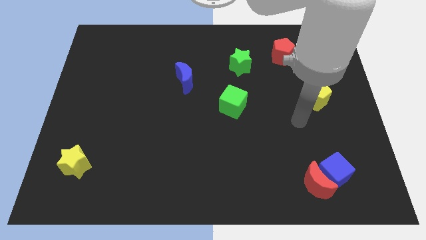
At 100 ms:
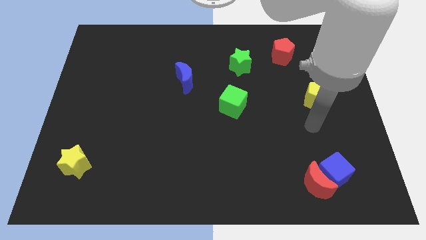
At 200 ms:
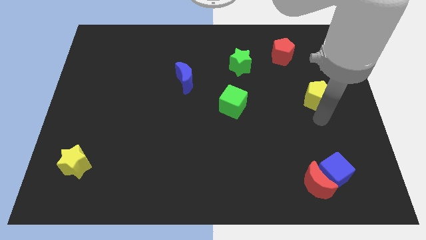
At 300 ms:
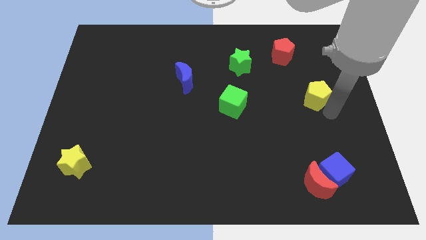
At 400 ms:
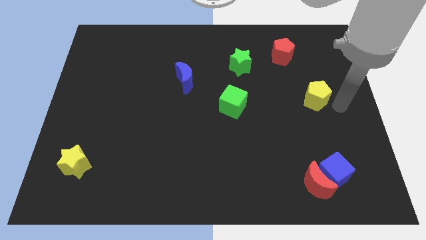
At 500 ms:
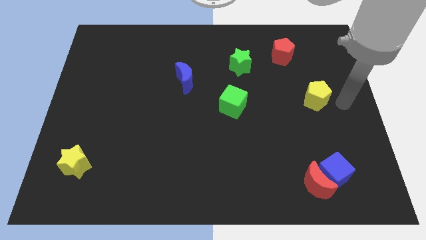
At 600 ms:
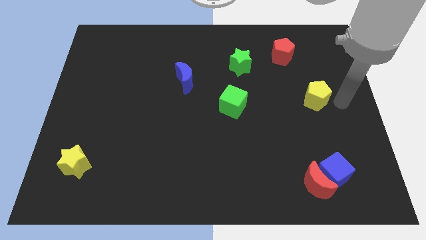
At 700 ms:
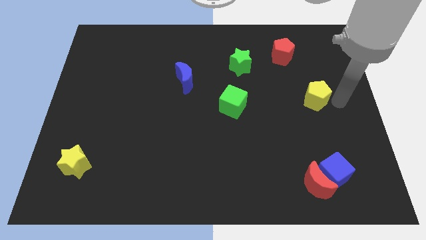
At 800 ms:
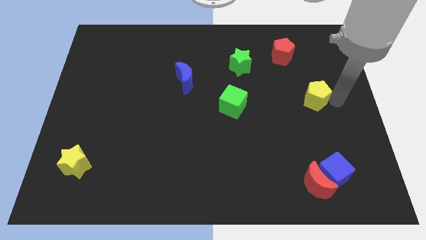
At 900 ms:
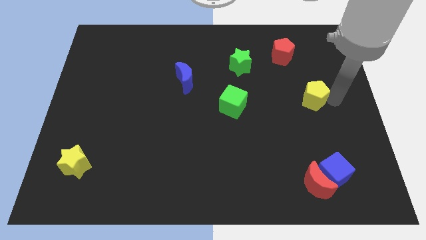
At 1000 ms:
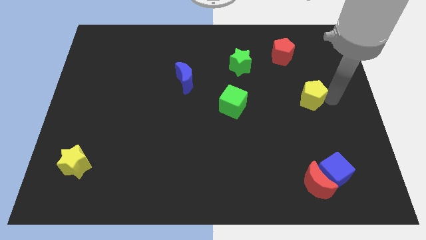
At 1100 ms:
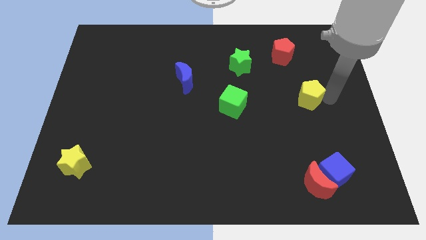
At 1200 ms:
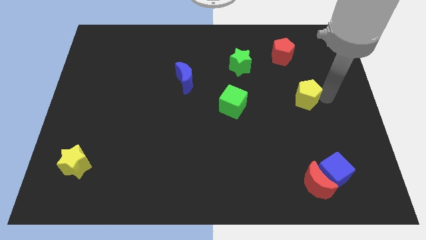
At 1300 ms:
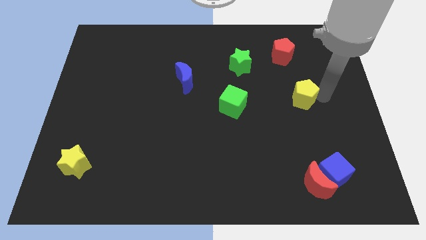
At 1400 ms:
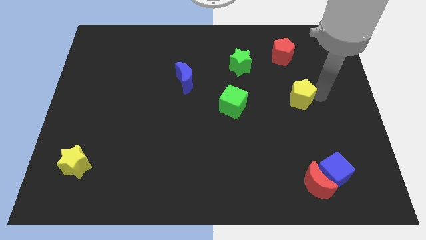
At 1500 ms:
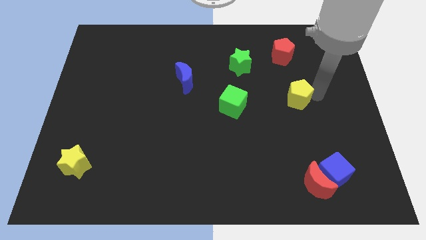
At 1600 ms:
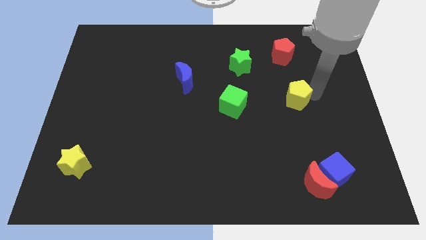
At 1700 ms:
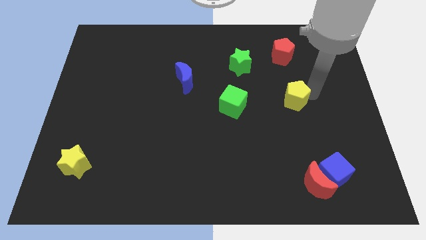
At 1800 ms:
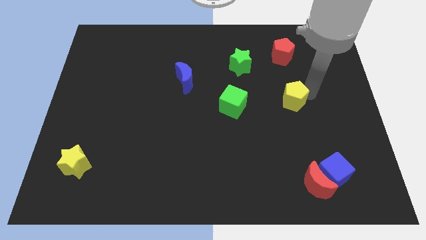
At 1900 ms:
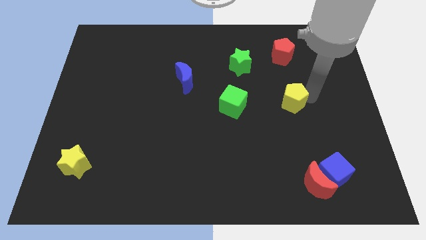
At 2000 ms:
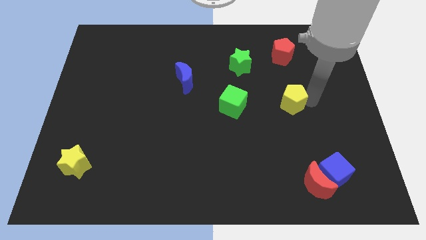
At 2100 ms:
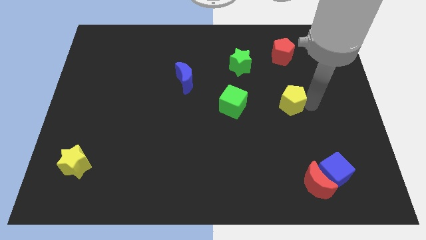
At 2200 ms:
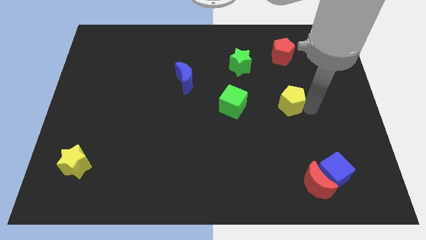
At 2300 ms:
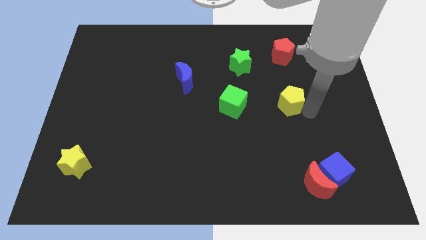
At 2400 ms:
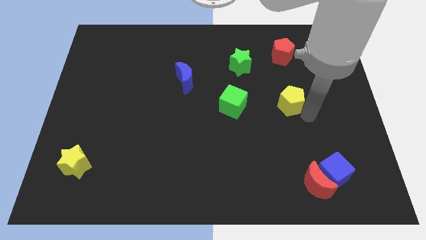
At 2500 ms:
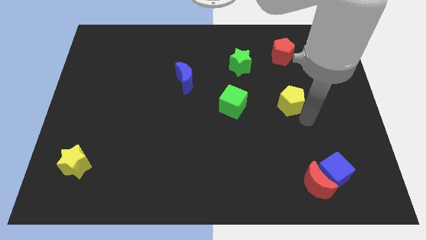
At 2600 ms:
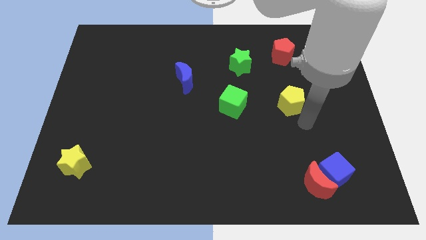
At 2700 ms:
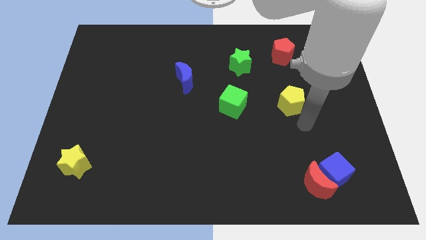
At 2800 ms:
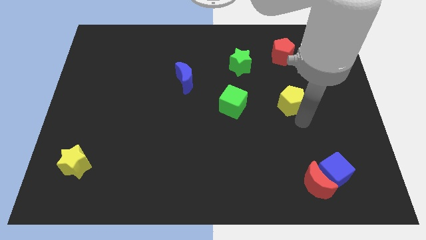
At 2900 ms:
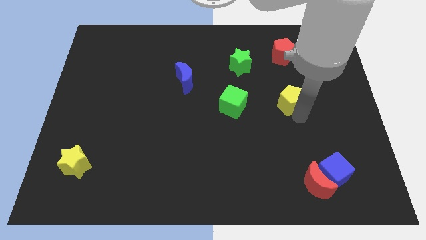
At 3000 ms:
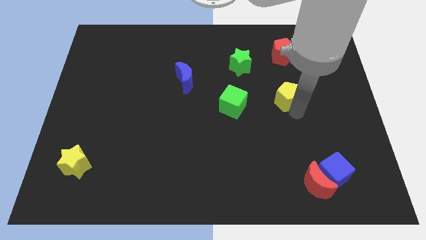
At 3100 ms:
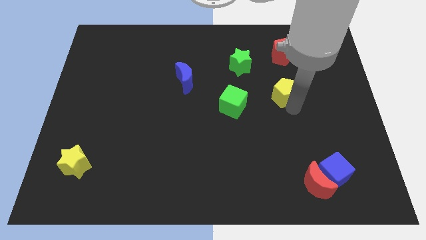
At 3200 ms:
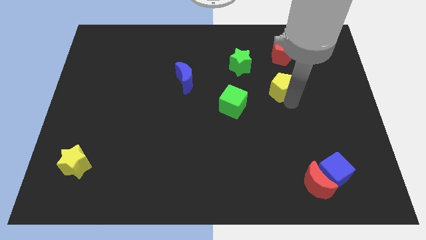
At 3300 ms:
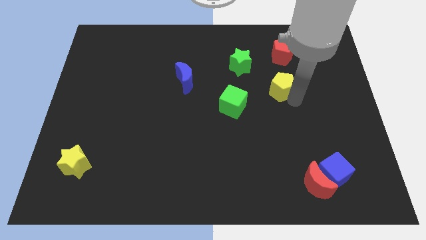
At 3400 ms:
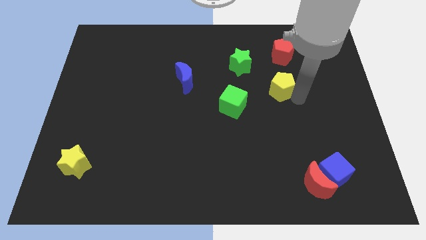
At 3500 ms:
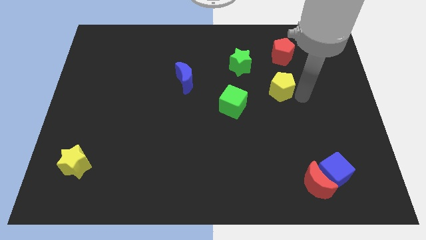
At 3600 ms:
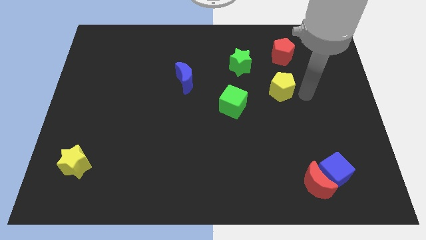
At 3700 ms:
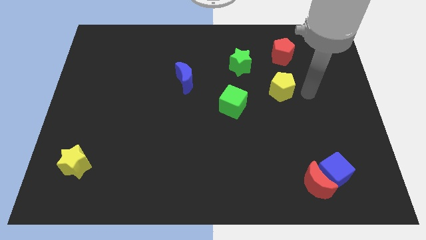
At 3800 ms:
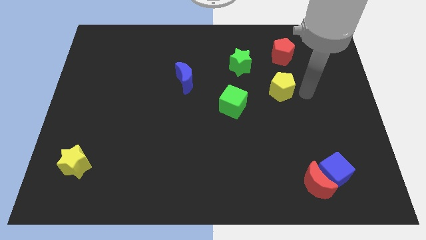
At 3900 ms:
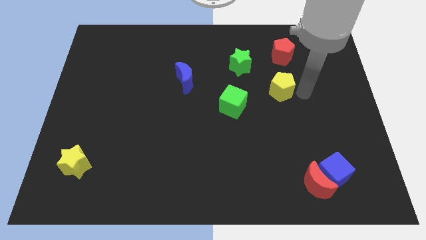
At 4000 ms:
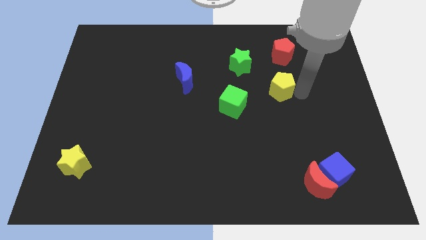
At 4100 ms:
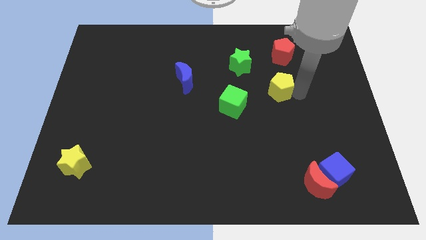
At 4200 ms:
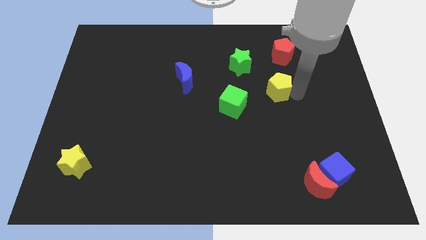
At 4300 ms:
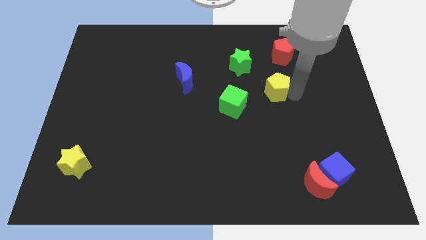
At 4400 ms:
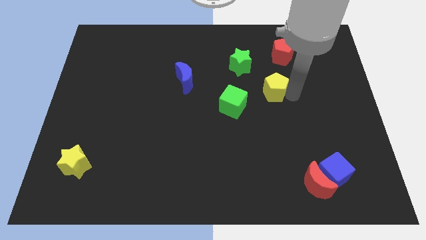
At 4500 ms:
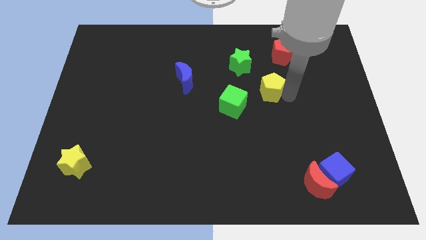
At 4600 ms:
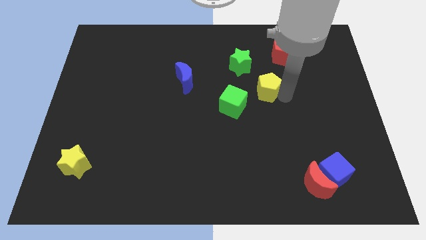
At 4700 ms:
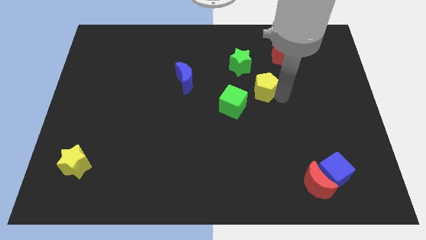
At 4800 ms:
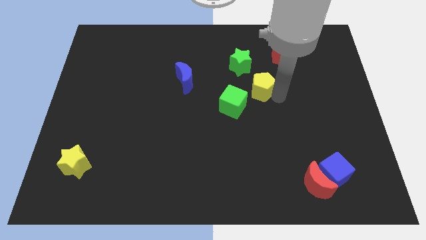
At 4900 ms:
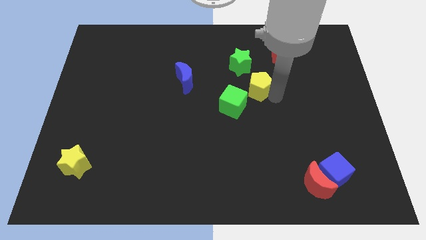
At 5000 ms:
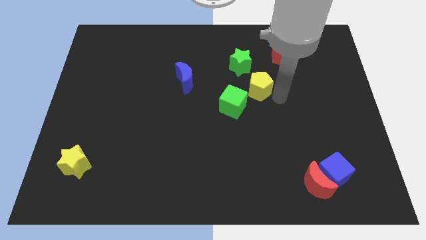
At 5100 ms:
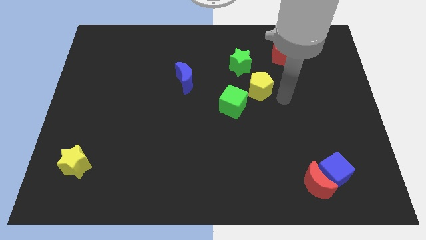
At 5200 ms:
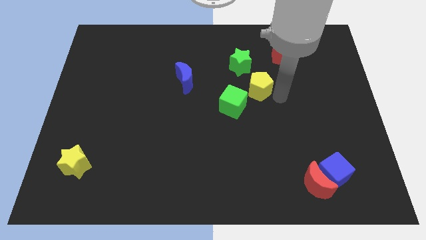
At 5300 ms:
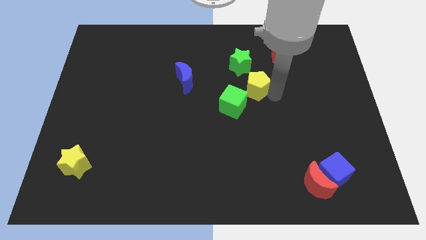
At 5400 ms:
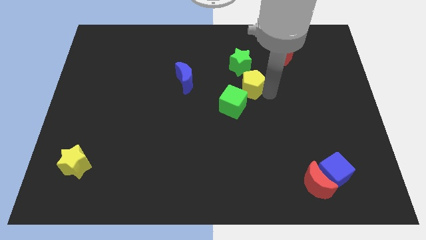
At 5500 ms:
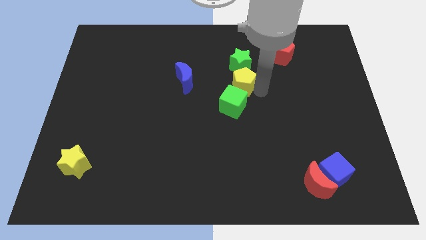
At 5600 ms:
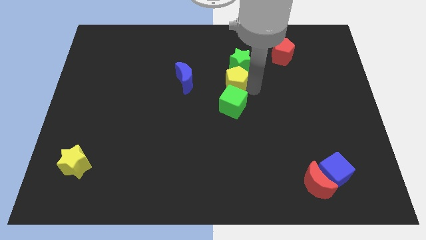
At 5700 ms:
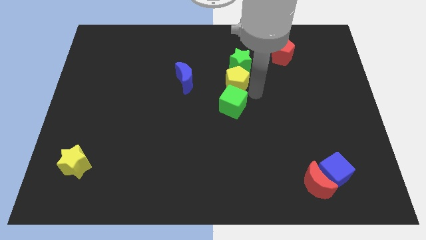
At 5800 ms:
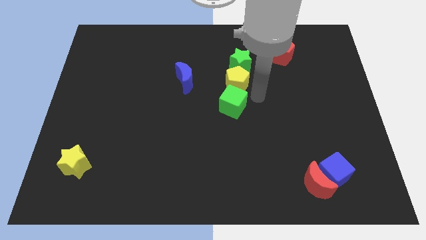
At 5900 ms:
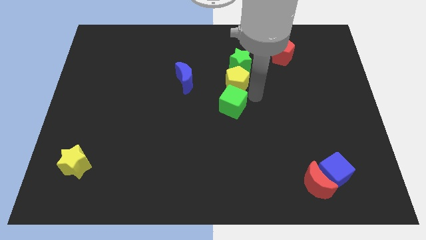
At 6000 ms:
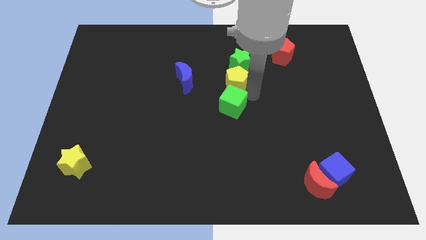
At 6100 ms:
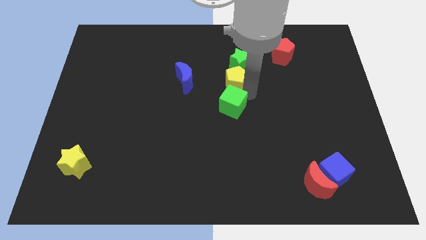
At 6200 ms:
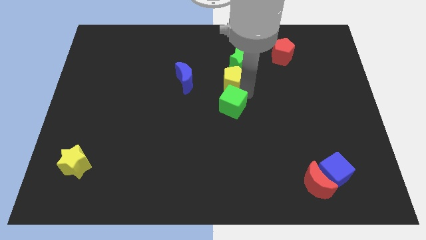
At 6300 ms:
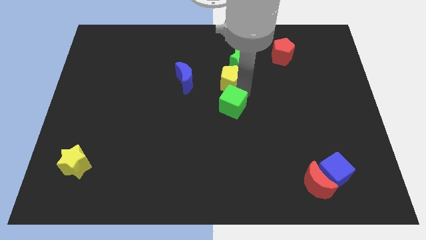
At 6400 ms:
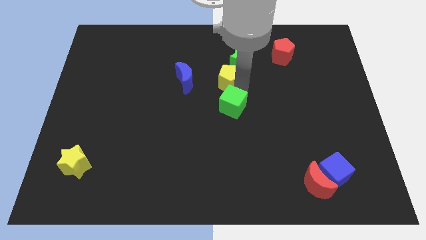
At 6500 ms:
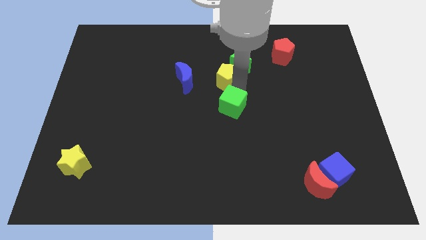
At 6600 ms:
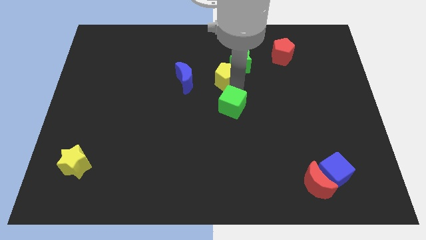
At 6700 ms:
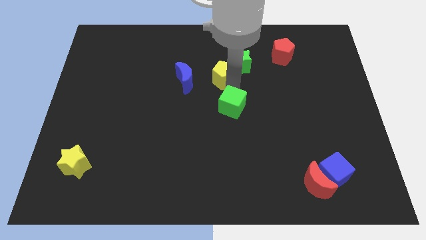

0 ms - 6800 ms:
slide the yellow pentagon to the left side of the green star
